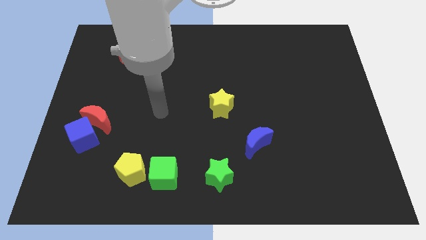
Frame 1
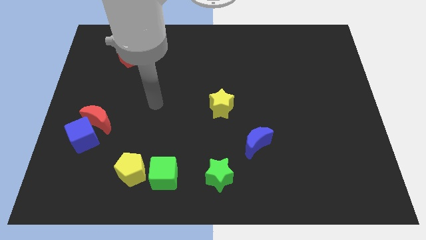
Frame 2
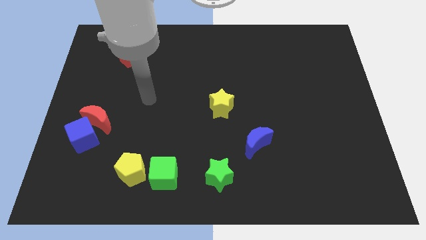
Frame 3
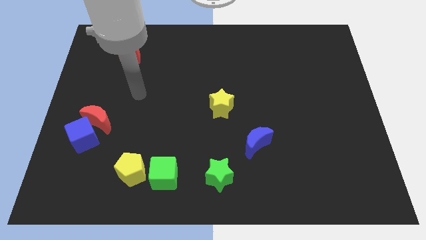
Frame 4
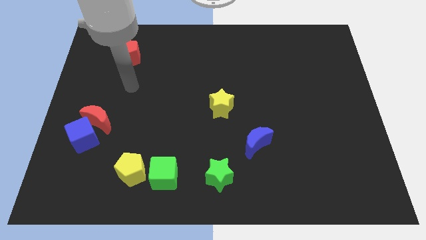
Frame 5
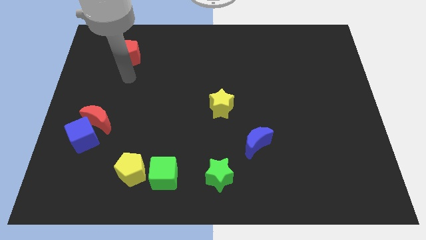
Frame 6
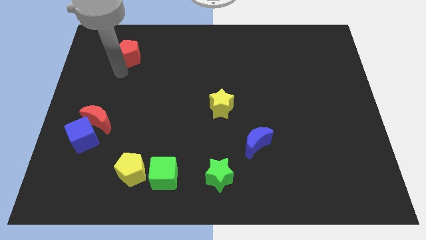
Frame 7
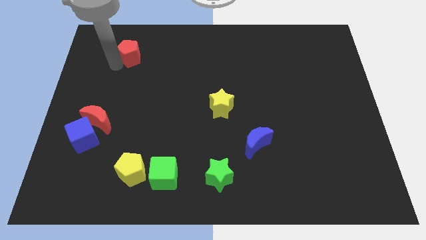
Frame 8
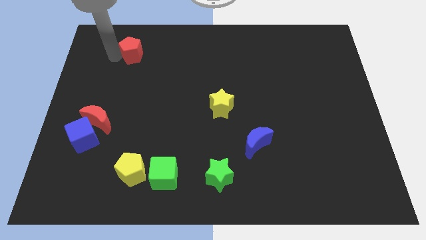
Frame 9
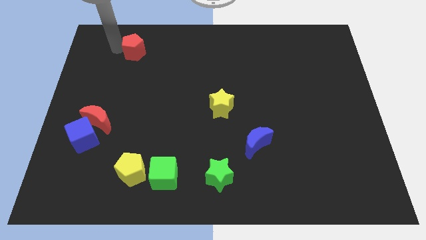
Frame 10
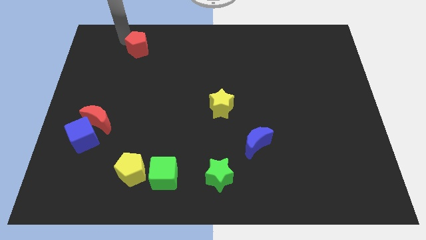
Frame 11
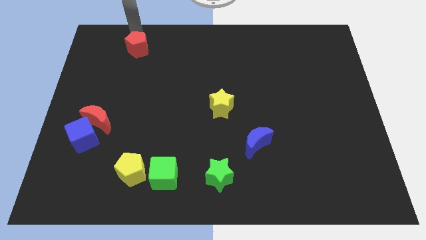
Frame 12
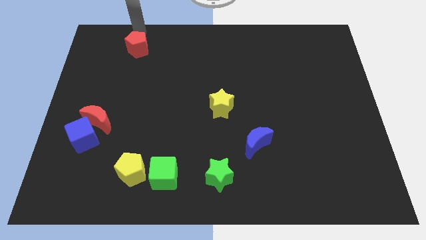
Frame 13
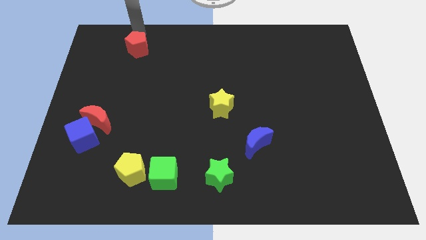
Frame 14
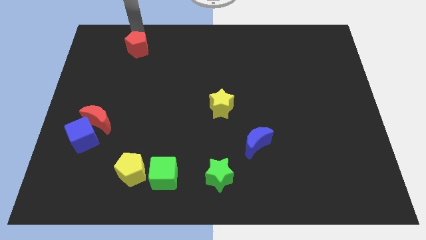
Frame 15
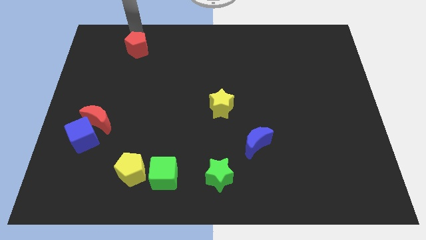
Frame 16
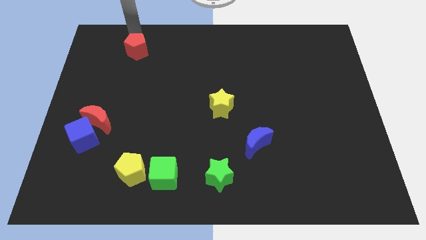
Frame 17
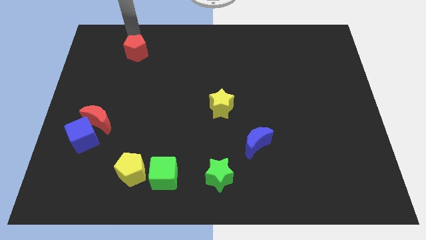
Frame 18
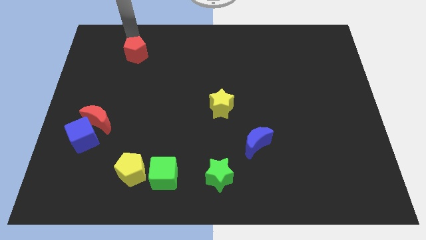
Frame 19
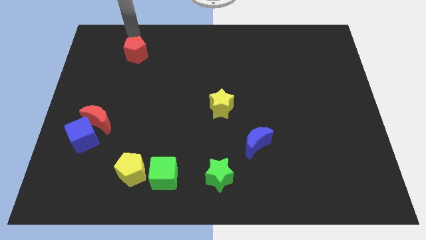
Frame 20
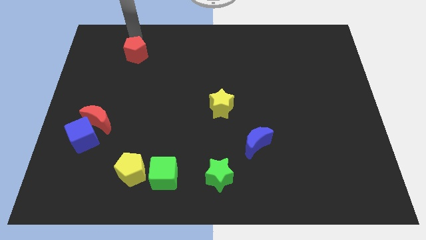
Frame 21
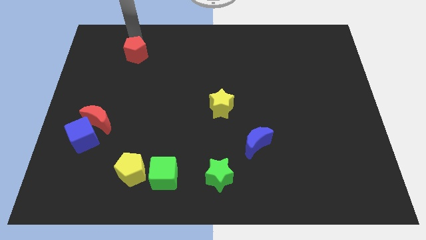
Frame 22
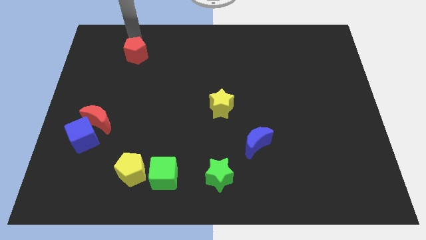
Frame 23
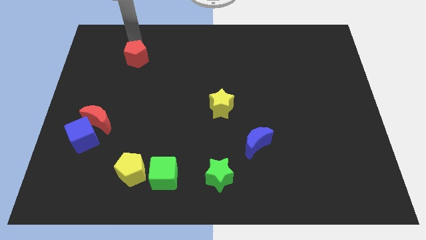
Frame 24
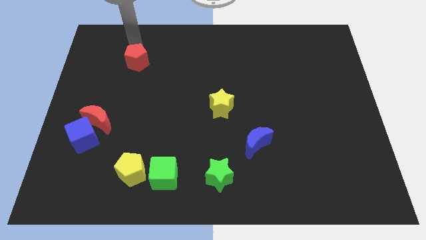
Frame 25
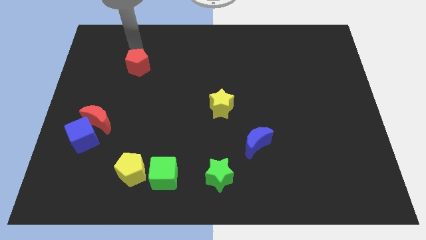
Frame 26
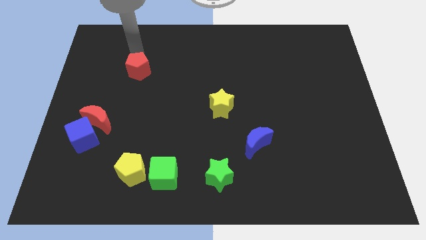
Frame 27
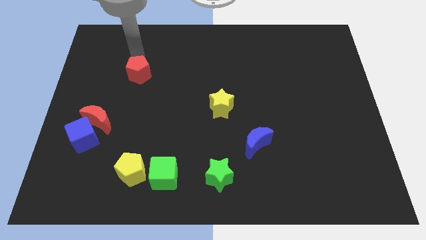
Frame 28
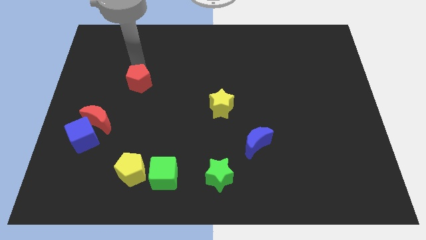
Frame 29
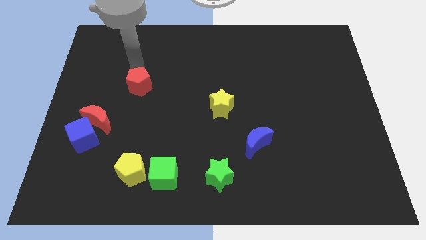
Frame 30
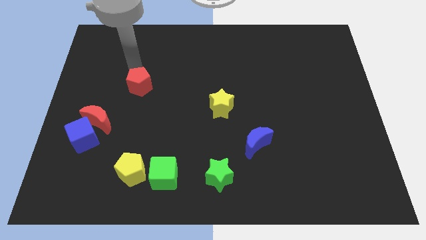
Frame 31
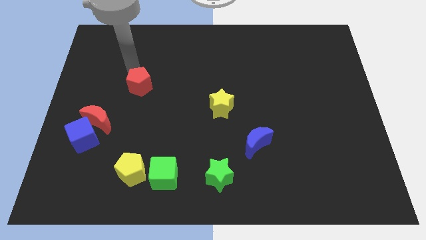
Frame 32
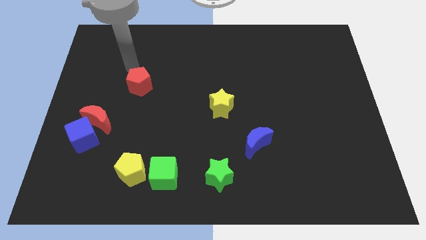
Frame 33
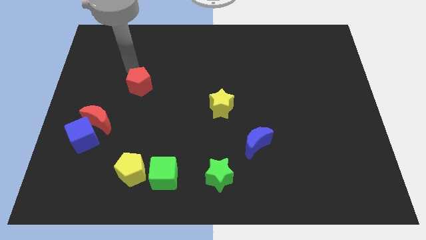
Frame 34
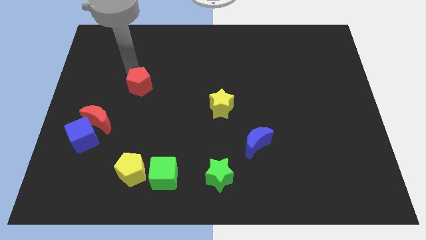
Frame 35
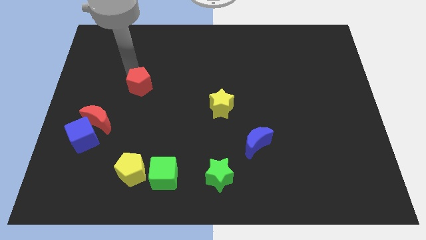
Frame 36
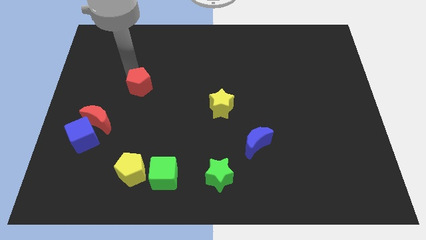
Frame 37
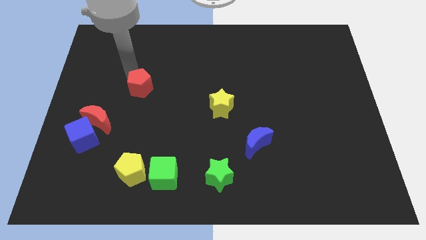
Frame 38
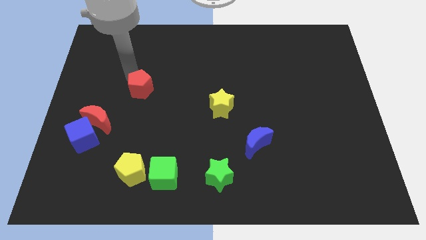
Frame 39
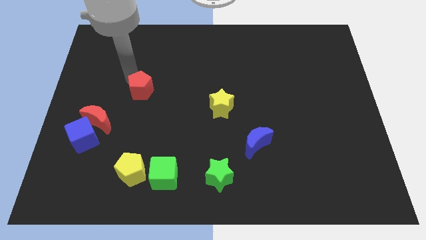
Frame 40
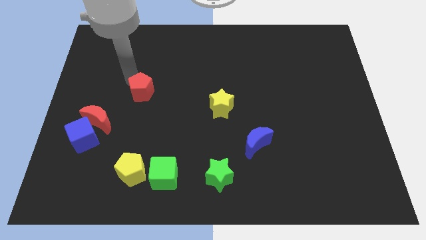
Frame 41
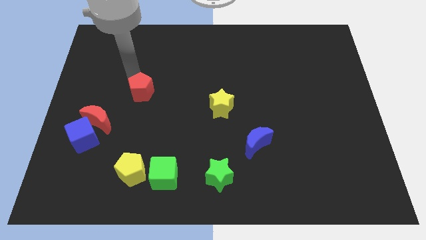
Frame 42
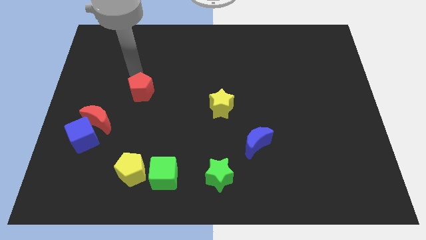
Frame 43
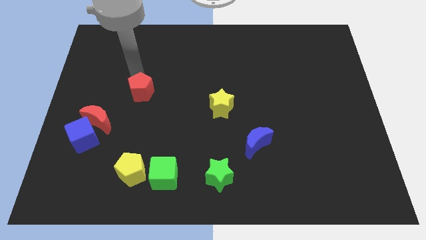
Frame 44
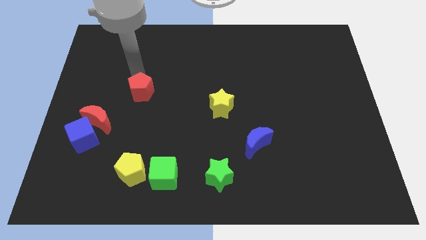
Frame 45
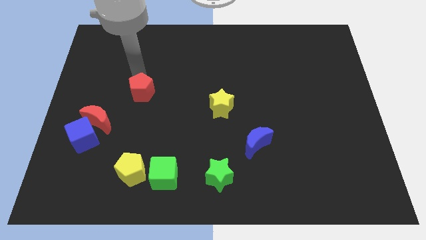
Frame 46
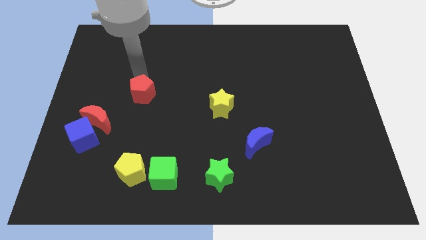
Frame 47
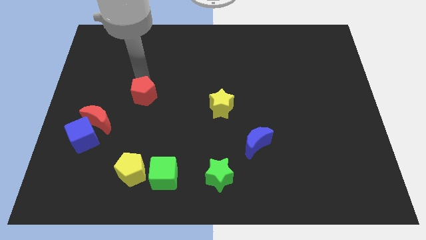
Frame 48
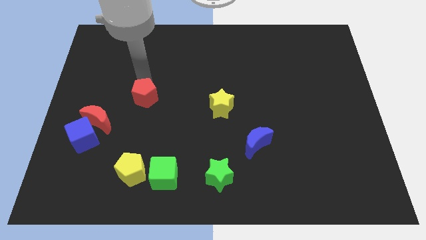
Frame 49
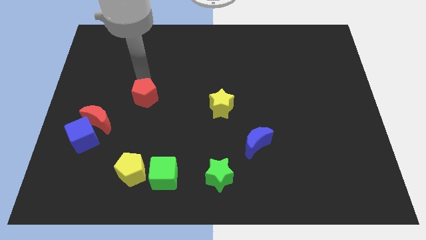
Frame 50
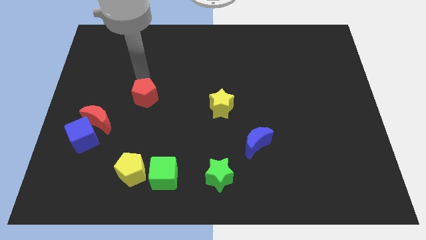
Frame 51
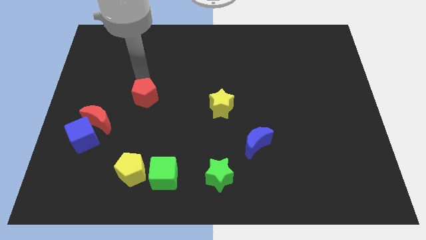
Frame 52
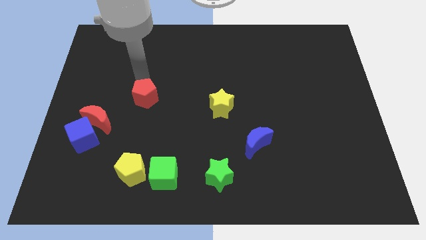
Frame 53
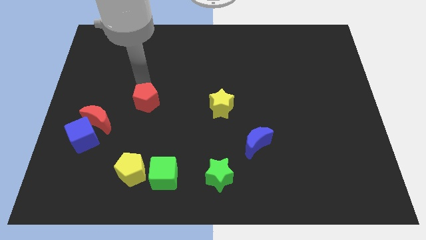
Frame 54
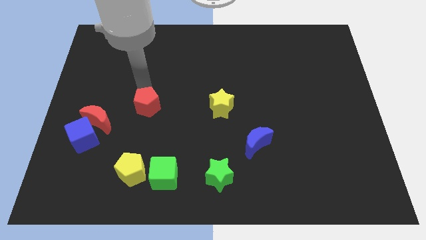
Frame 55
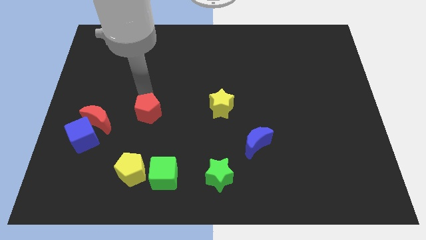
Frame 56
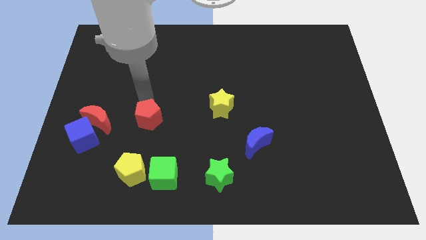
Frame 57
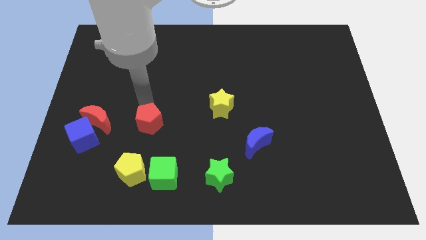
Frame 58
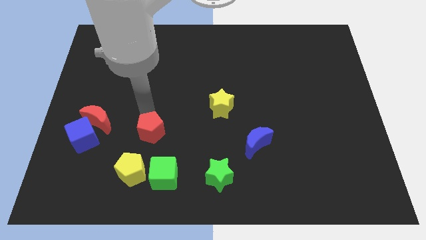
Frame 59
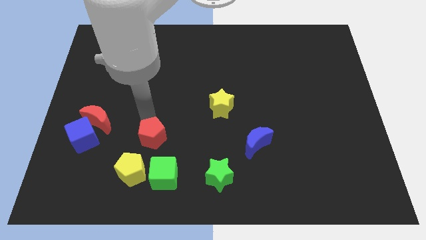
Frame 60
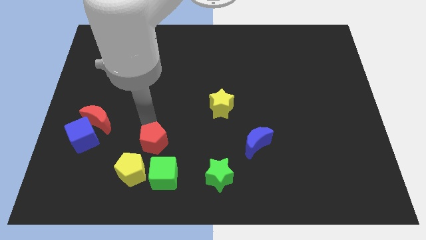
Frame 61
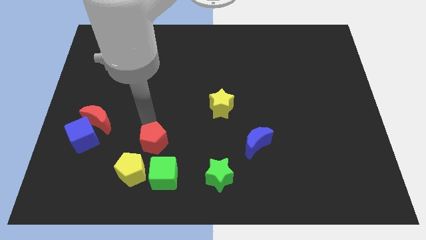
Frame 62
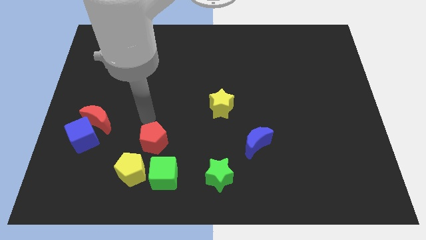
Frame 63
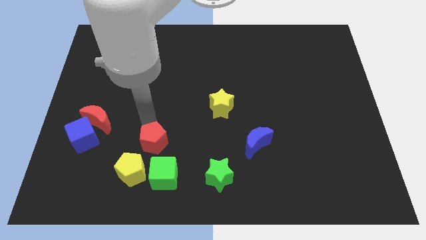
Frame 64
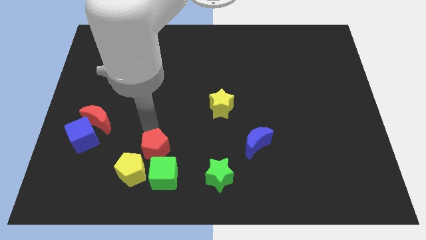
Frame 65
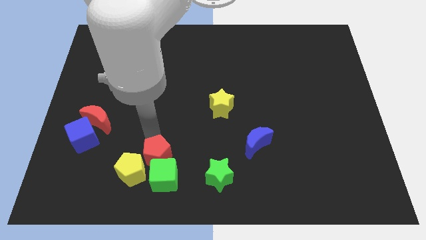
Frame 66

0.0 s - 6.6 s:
move the red pentagon next to the green cube

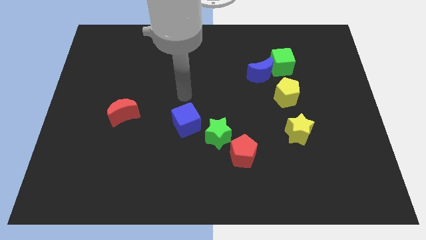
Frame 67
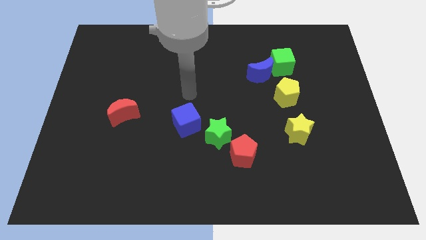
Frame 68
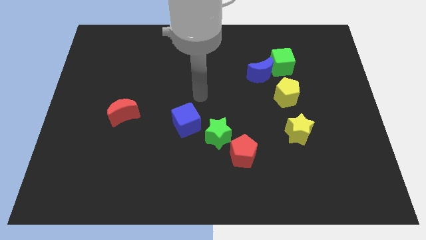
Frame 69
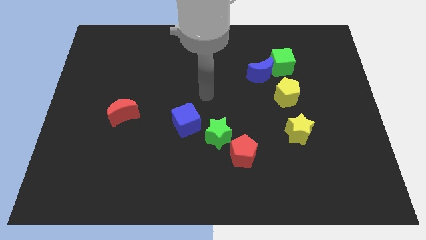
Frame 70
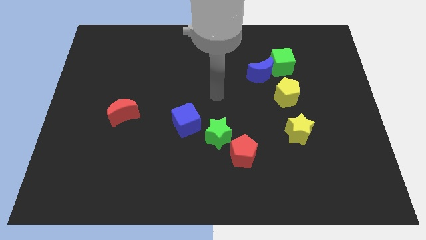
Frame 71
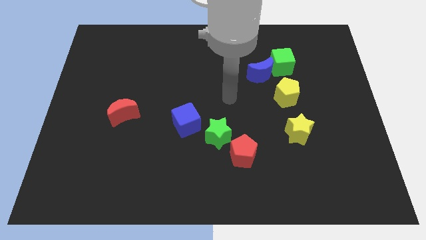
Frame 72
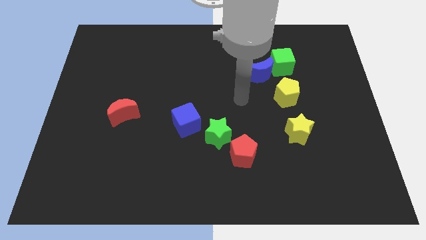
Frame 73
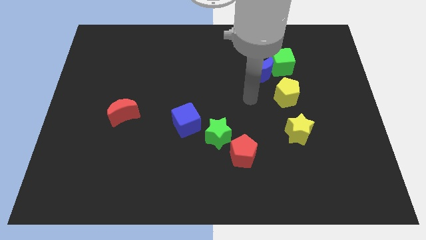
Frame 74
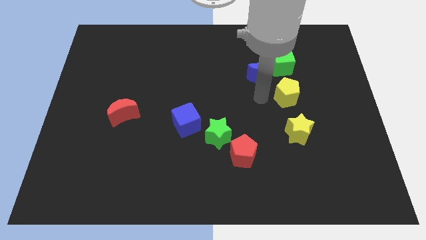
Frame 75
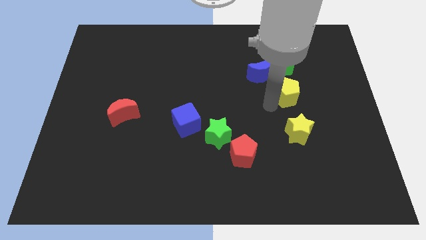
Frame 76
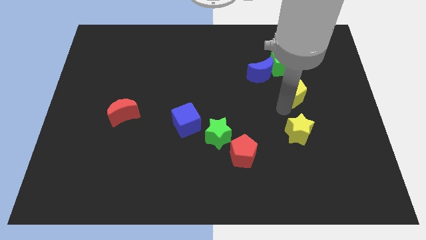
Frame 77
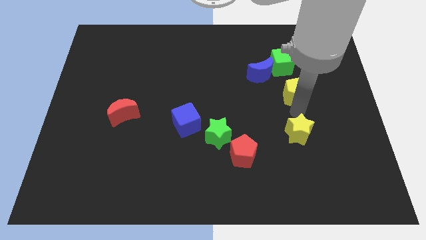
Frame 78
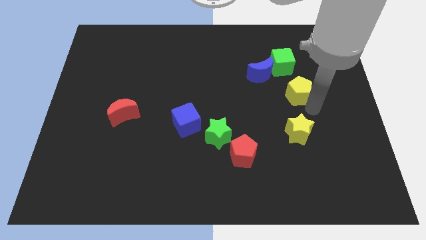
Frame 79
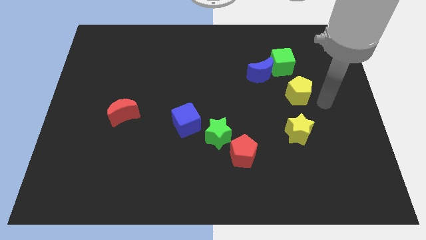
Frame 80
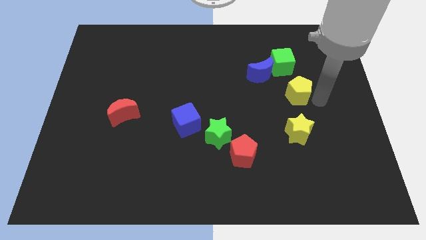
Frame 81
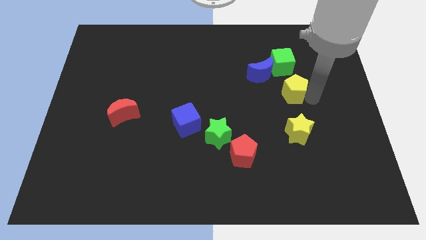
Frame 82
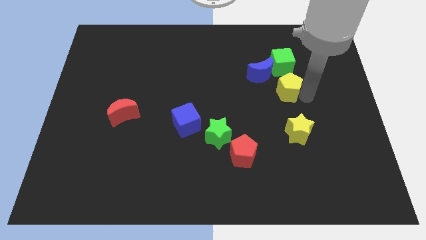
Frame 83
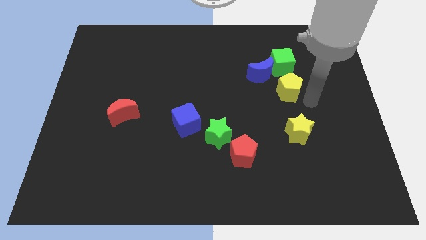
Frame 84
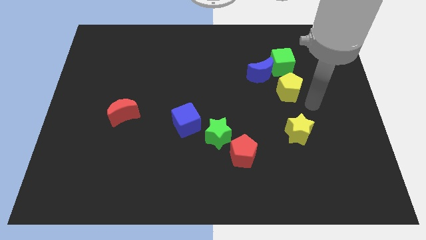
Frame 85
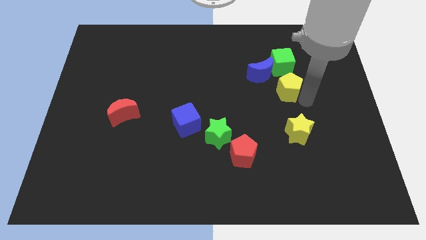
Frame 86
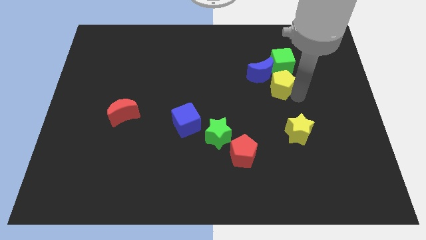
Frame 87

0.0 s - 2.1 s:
move the yellow pentagon towards the blue moon
